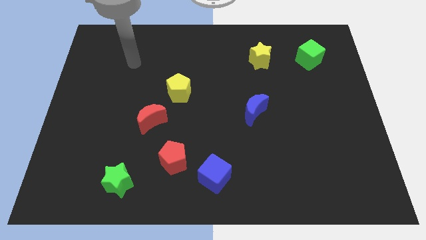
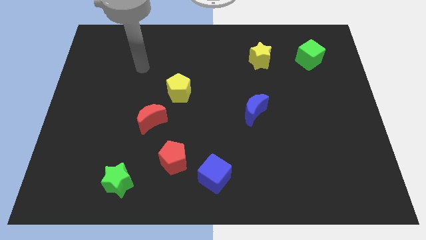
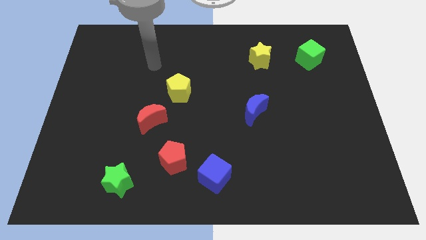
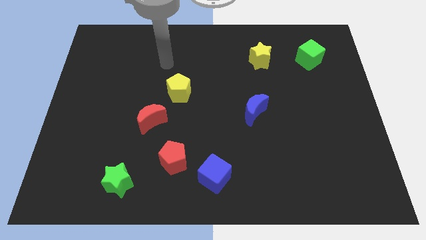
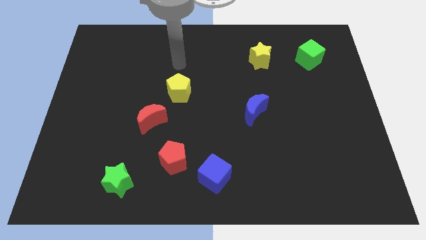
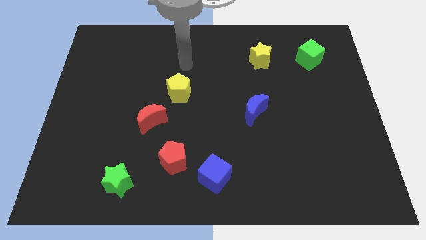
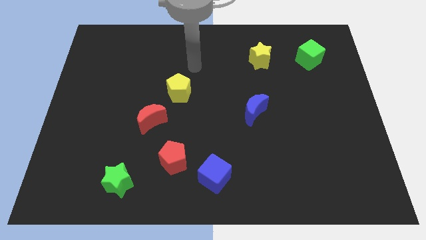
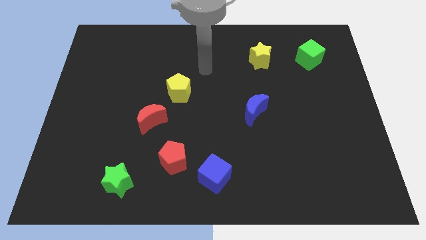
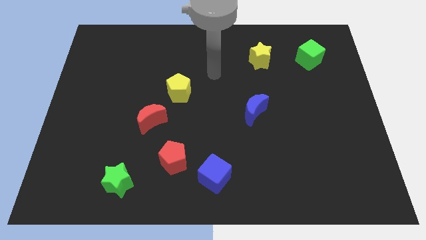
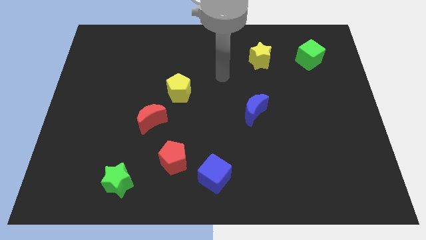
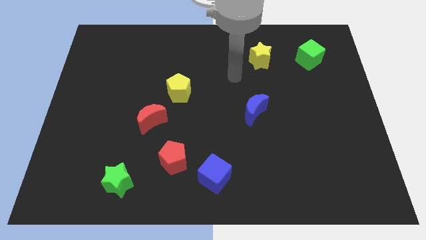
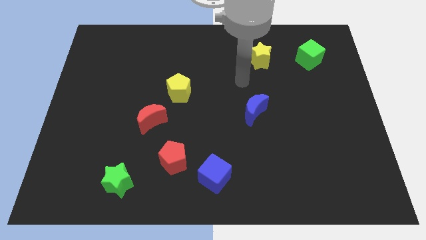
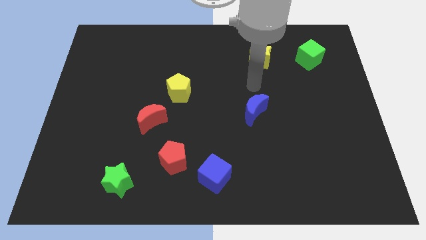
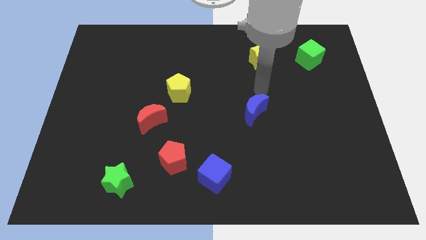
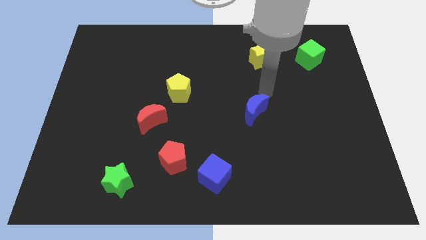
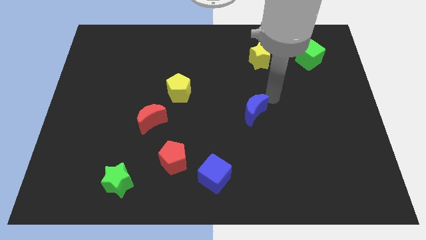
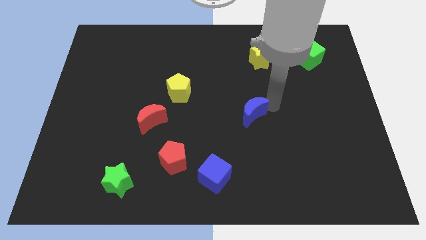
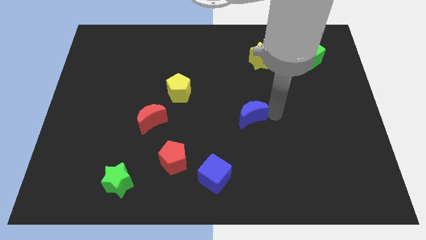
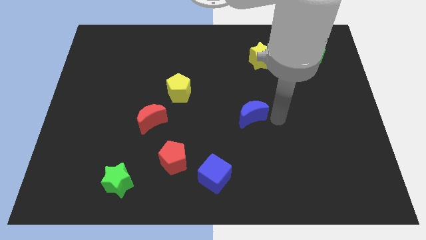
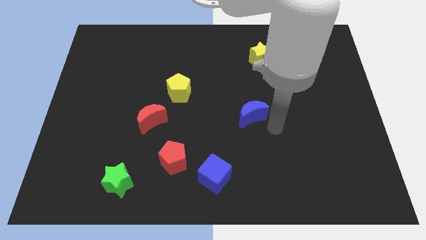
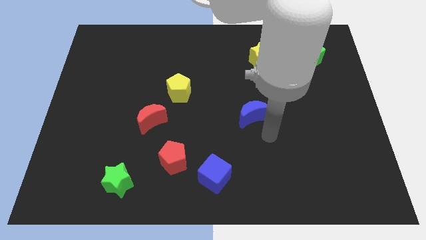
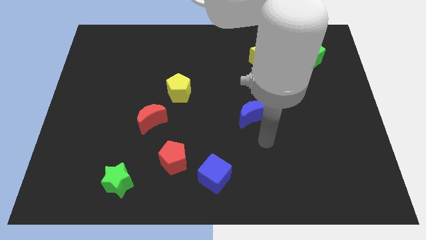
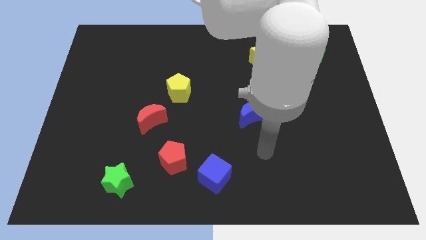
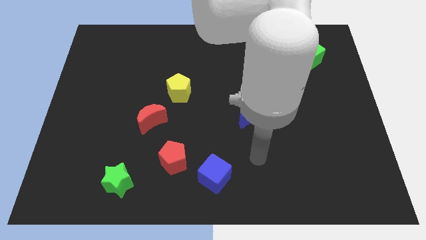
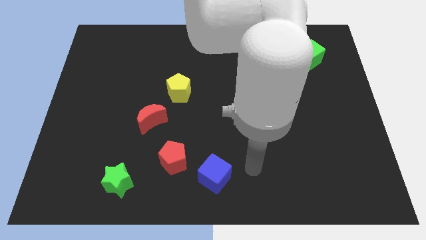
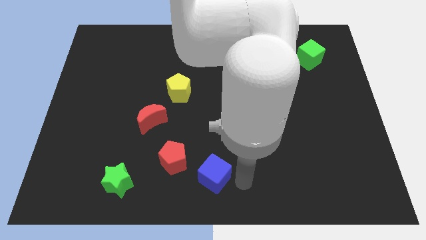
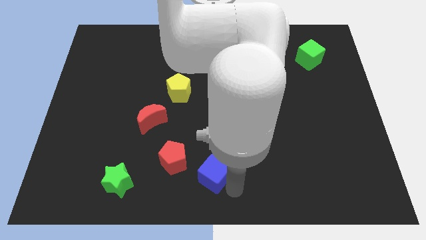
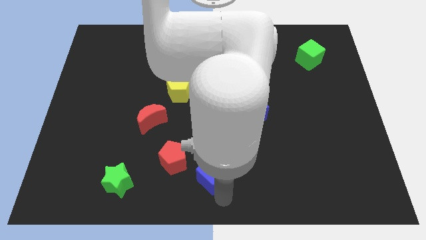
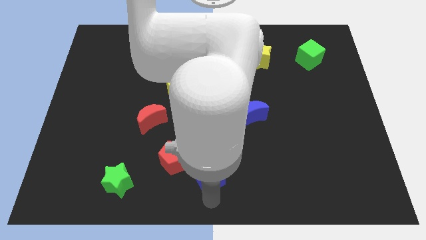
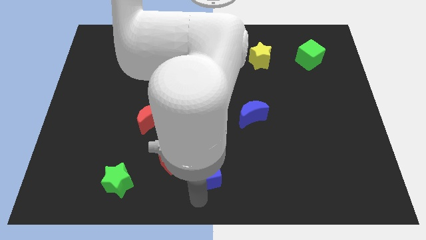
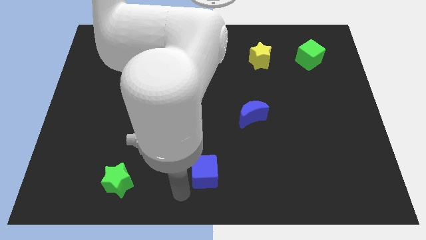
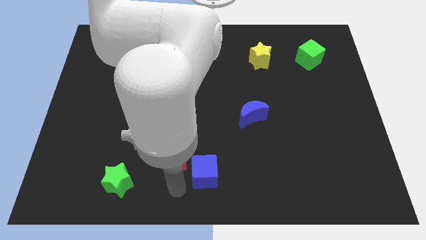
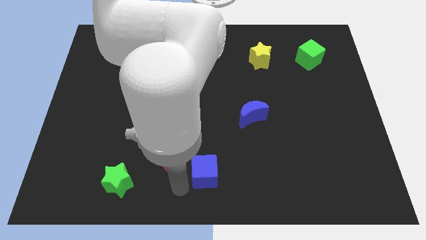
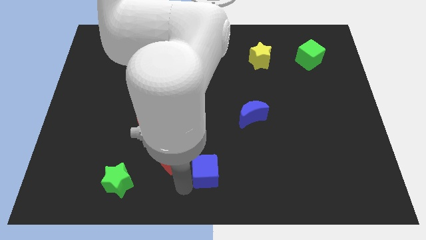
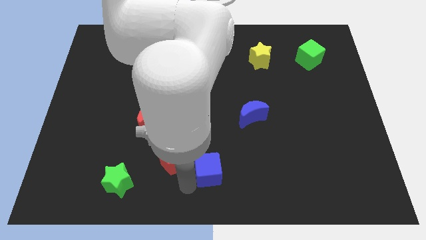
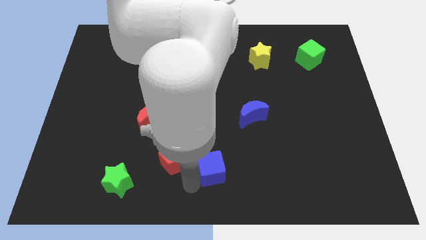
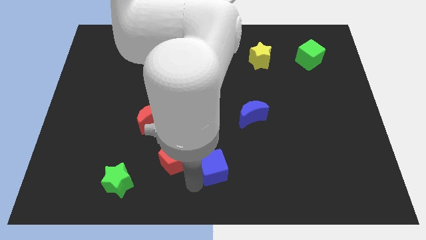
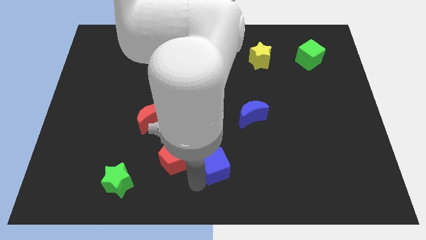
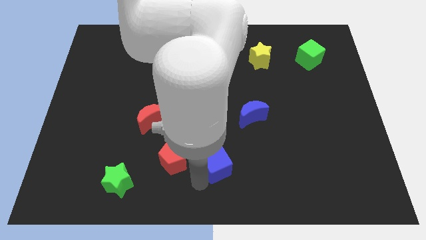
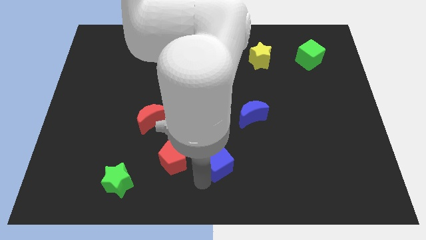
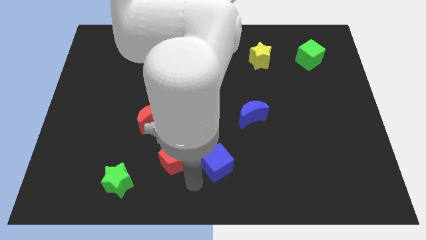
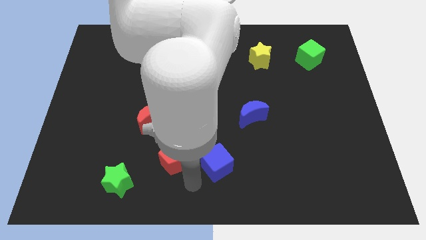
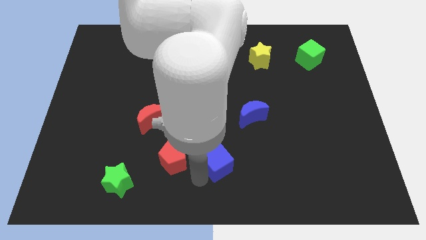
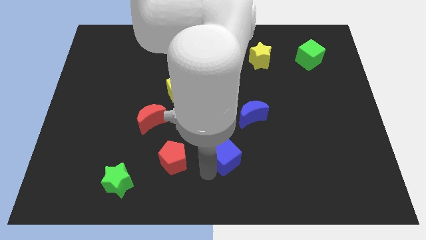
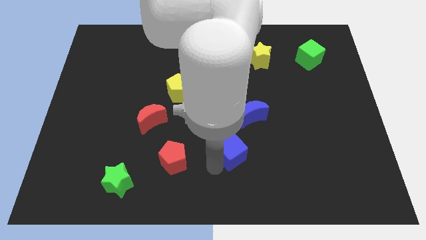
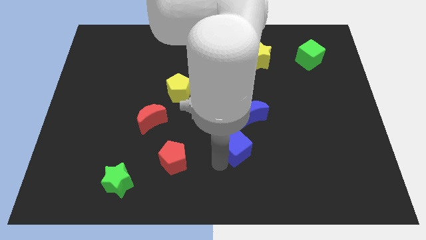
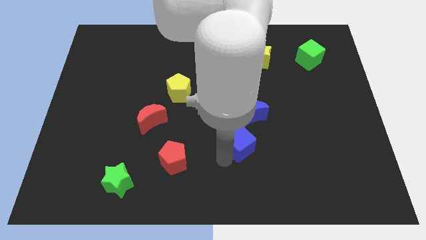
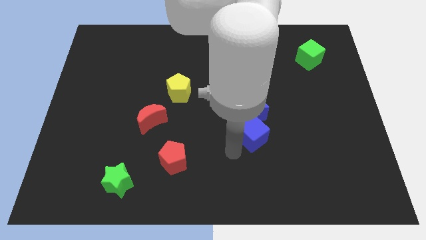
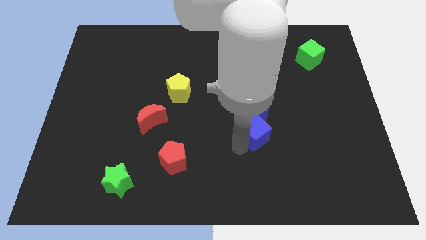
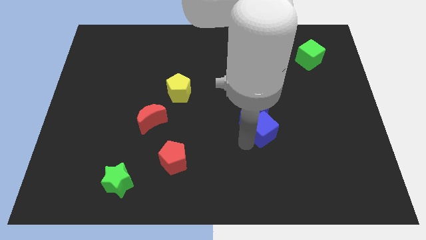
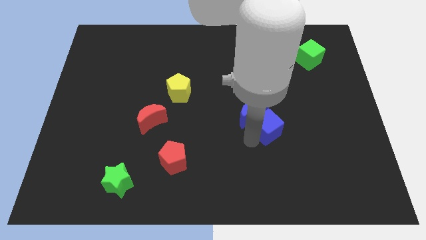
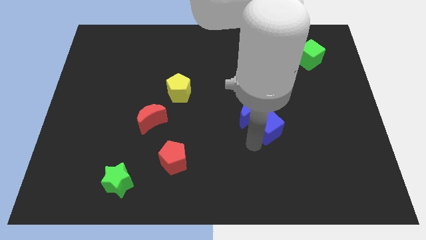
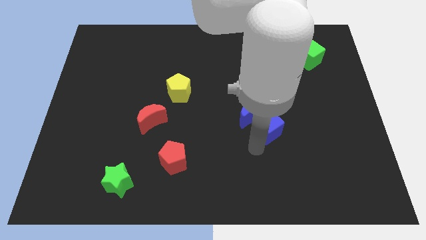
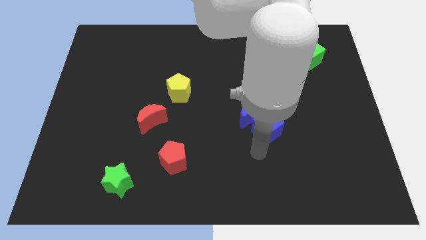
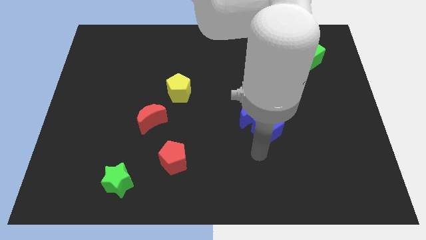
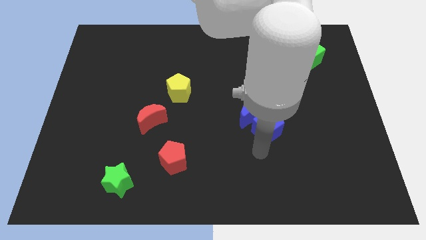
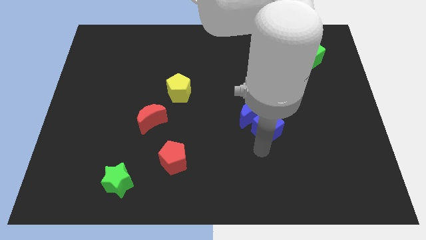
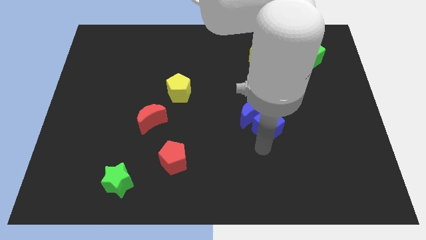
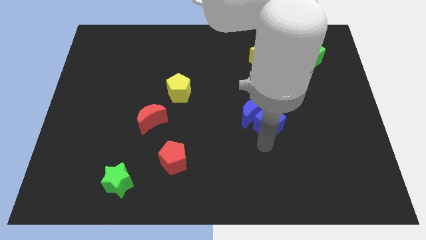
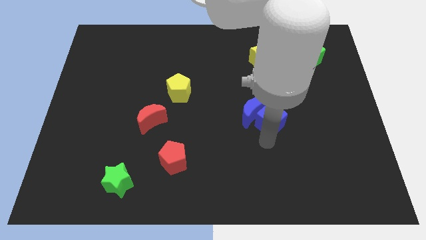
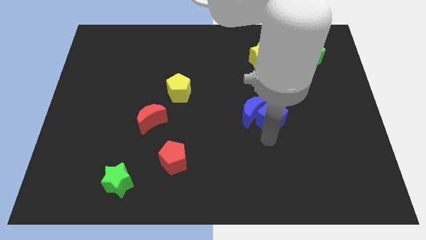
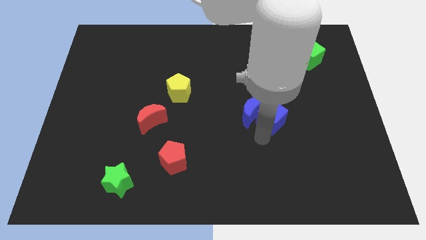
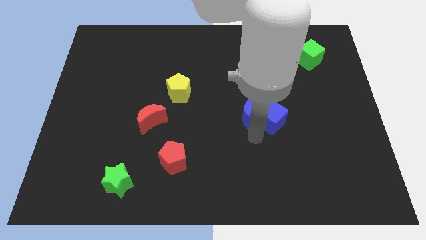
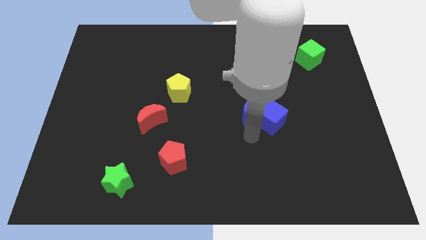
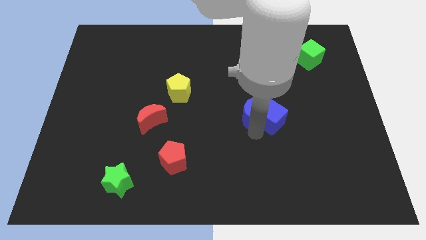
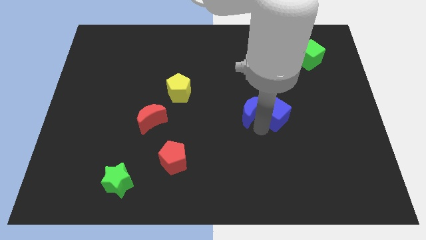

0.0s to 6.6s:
slide the blue cube upwards and to the right diagonally

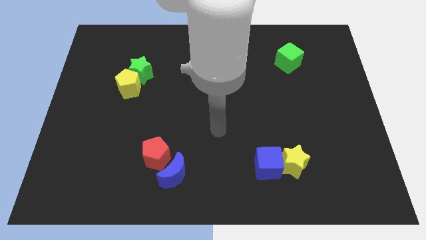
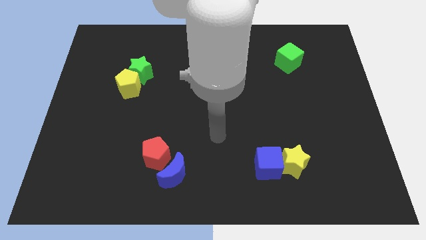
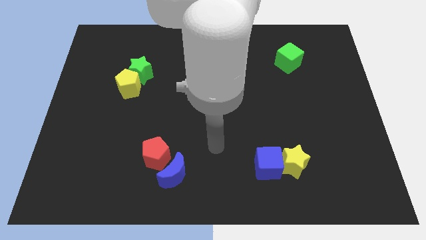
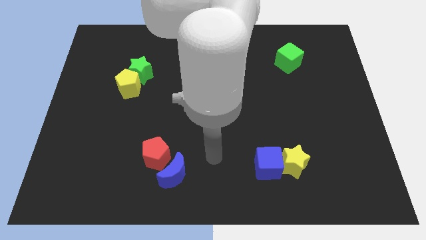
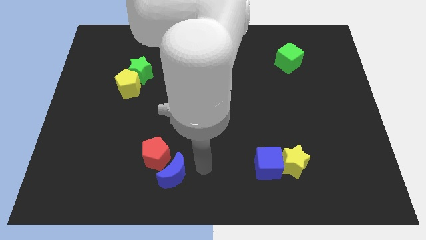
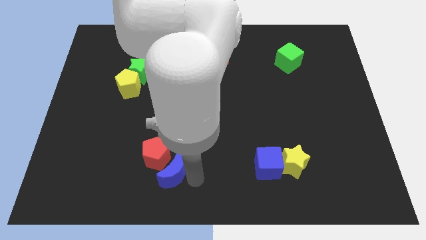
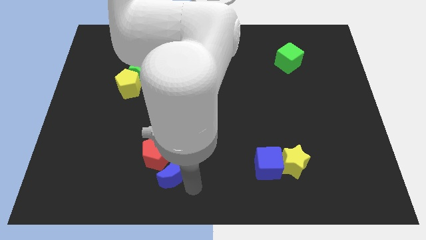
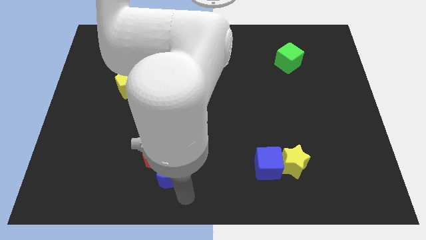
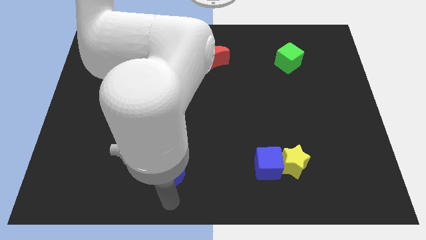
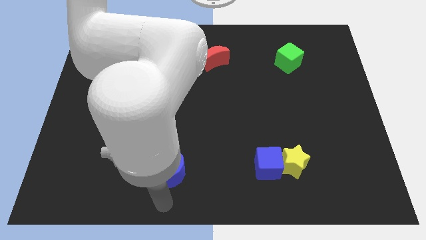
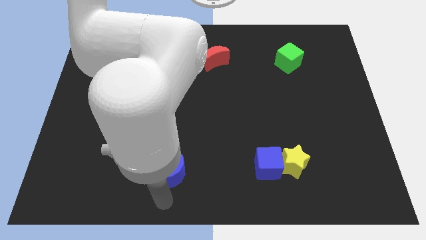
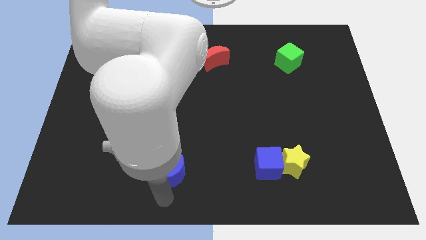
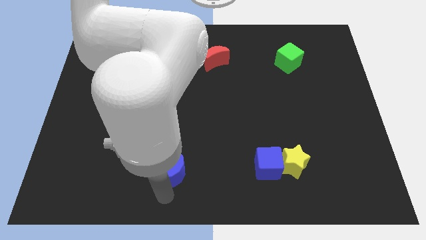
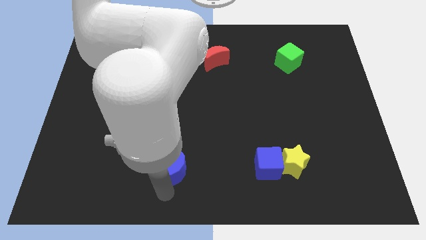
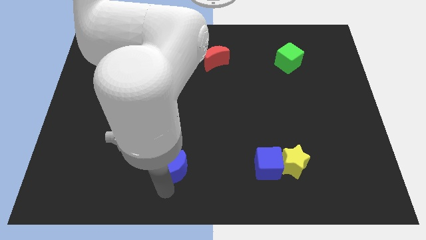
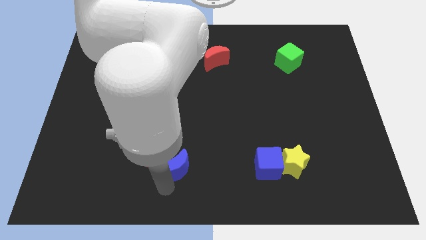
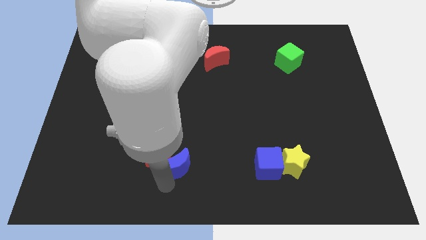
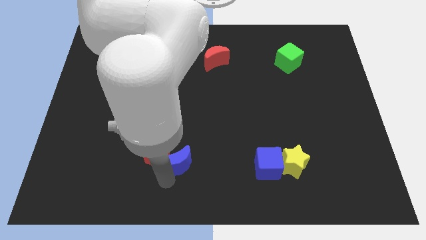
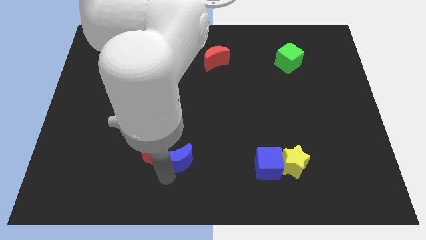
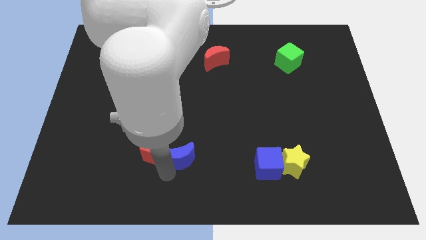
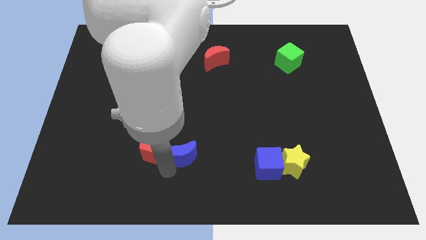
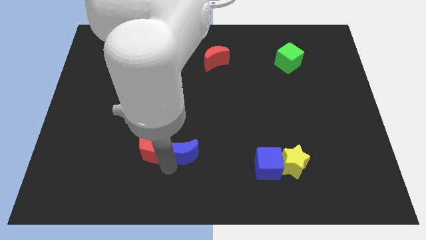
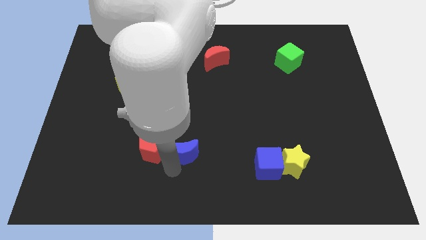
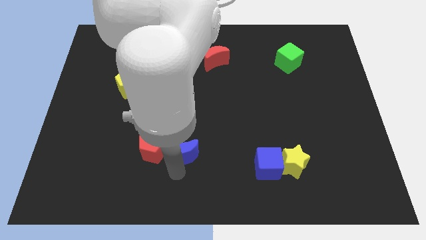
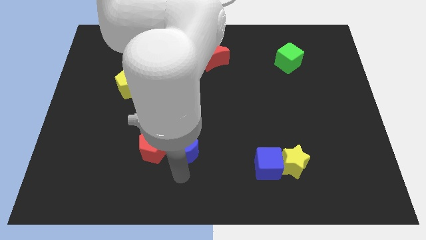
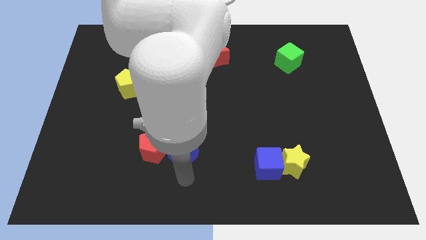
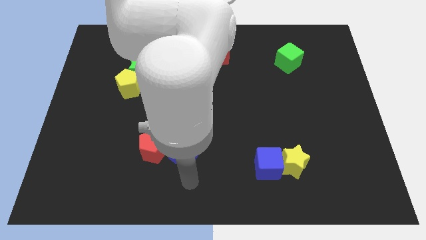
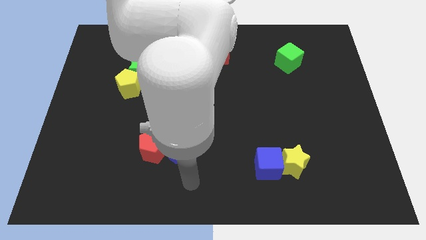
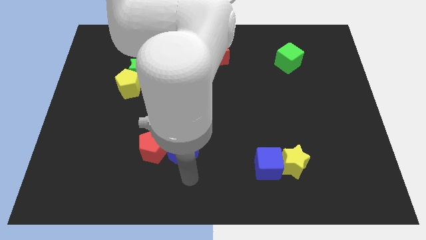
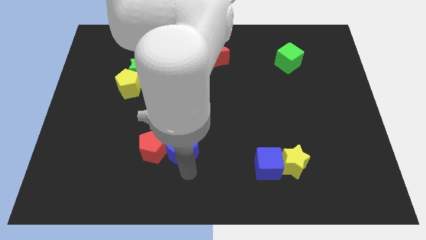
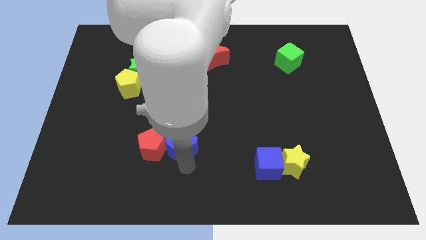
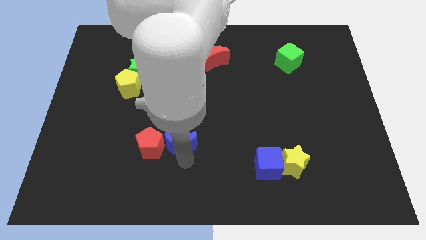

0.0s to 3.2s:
slightly slide the blue moon up
